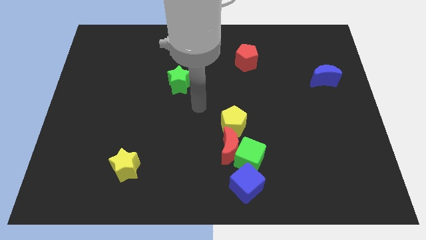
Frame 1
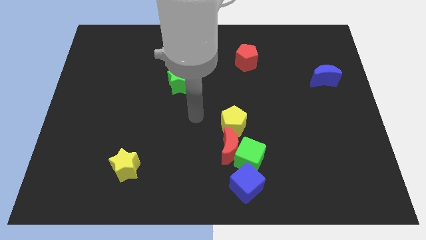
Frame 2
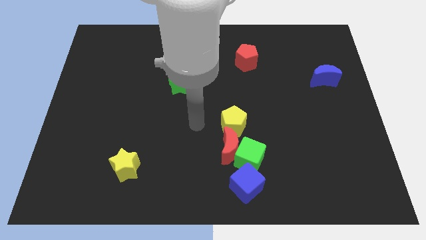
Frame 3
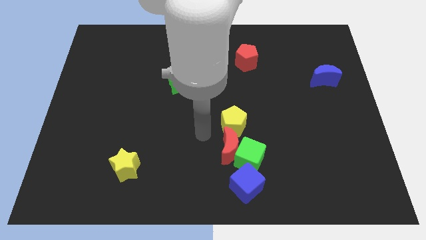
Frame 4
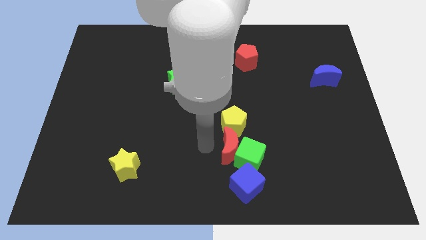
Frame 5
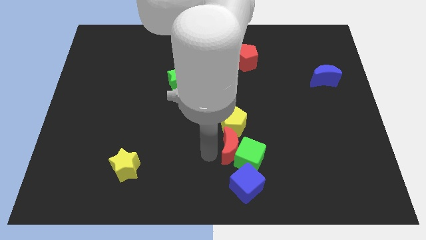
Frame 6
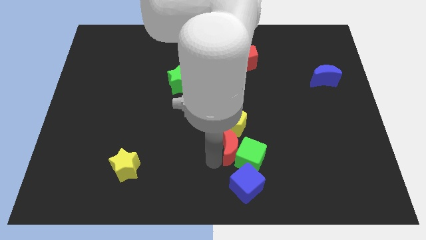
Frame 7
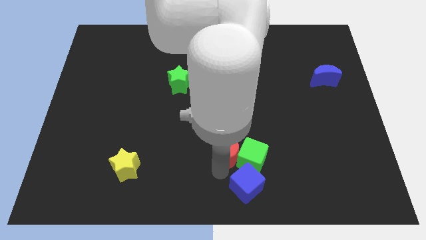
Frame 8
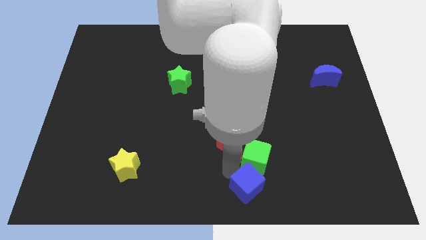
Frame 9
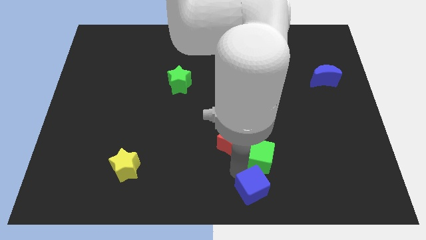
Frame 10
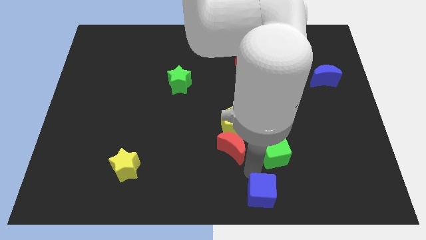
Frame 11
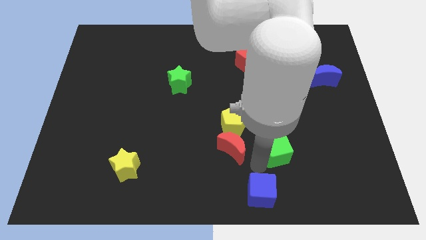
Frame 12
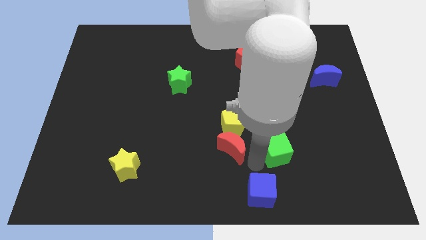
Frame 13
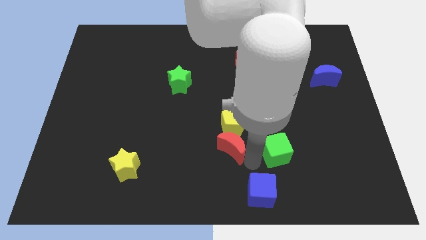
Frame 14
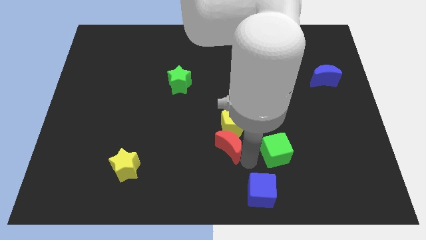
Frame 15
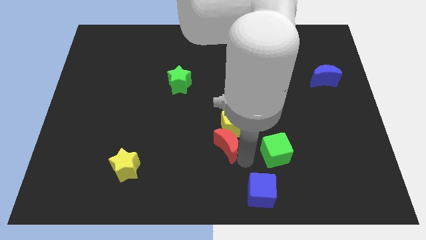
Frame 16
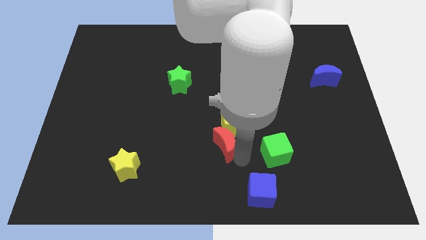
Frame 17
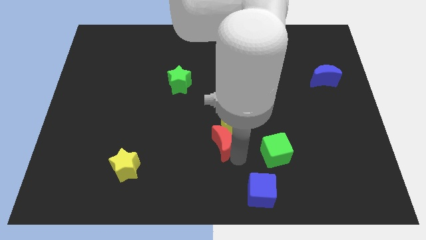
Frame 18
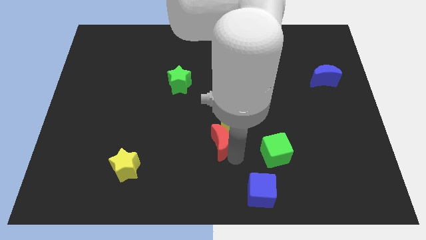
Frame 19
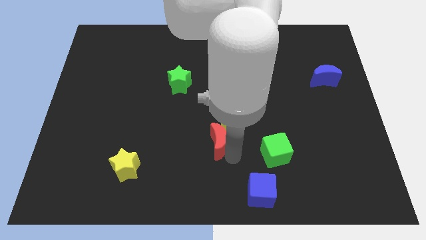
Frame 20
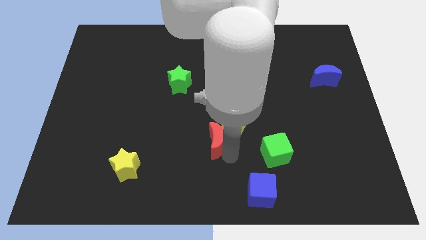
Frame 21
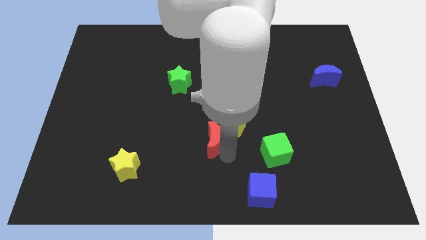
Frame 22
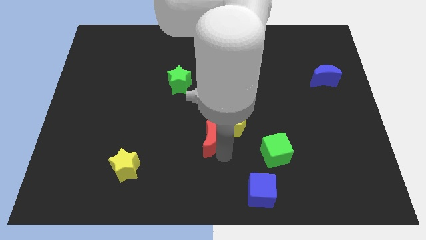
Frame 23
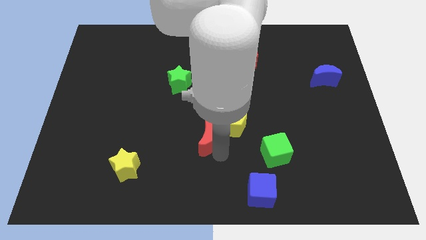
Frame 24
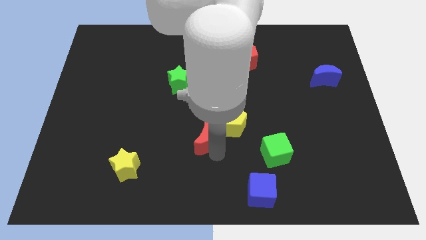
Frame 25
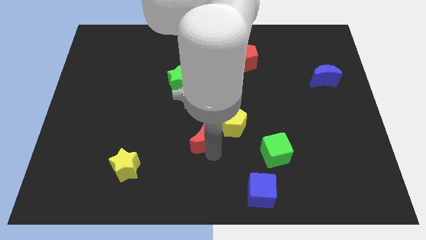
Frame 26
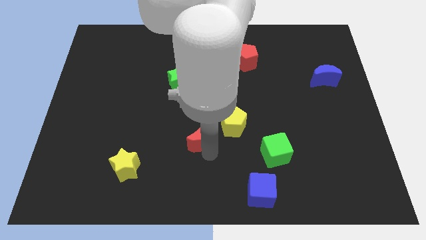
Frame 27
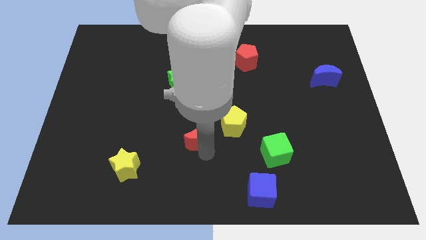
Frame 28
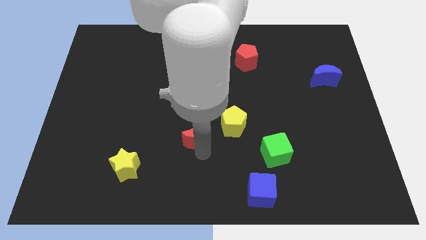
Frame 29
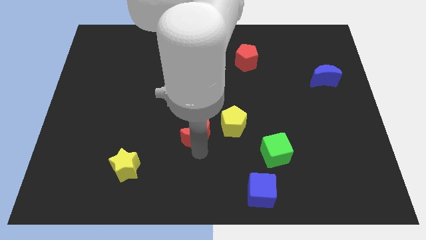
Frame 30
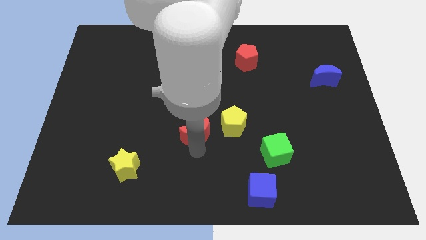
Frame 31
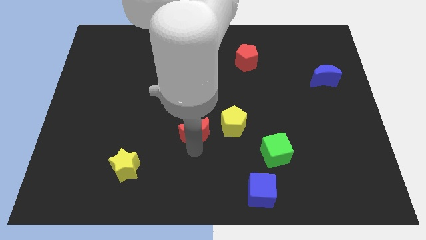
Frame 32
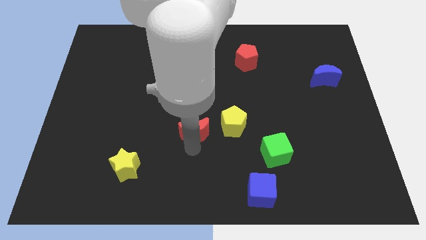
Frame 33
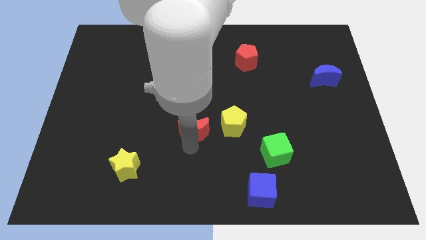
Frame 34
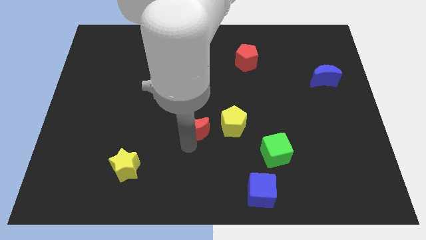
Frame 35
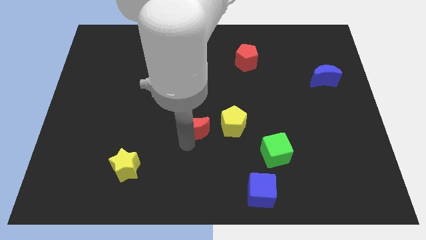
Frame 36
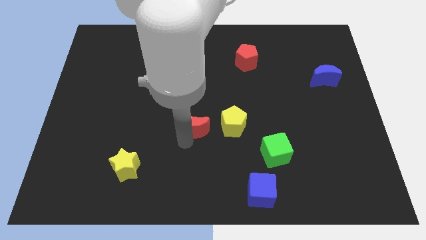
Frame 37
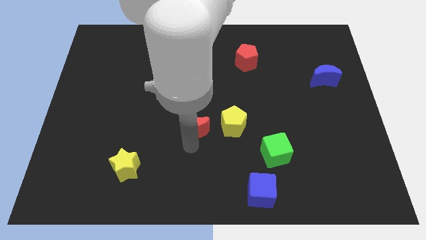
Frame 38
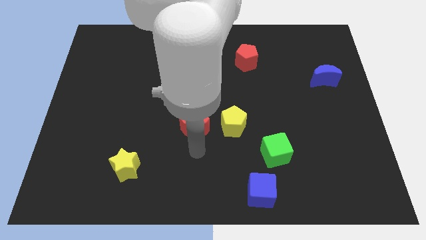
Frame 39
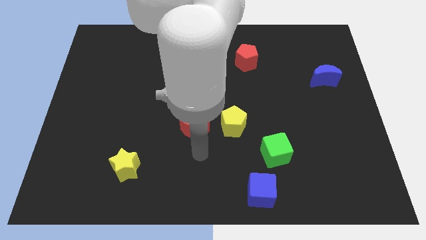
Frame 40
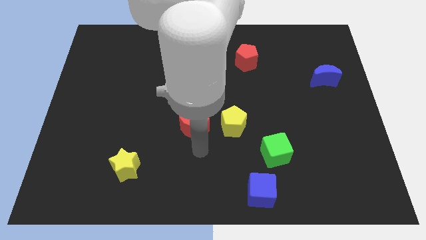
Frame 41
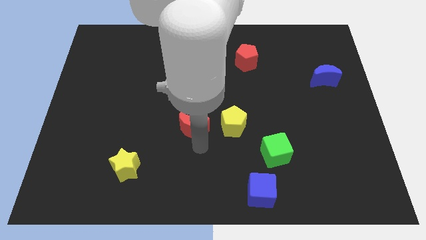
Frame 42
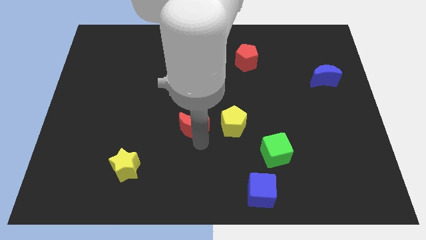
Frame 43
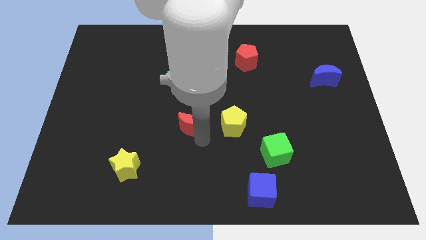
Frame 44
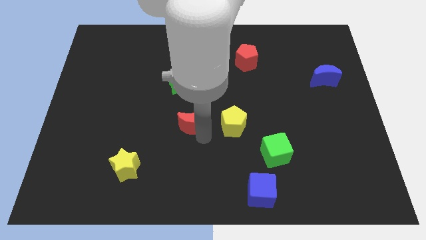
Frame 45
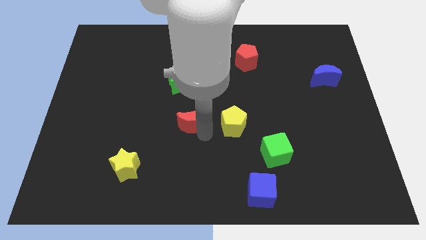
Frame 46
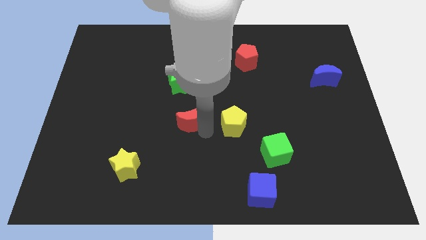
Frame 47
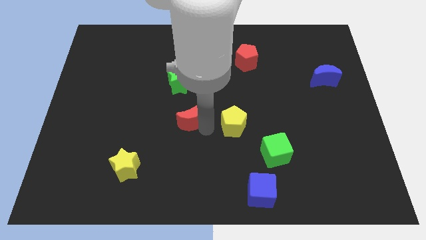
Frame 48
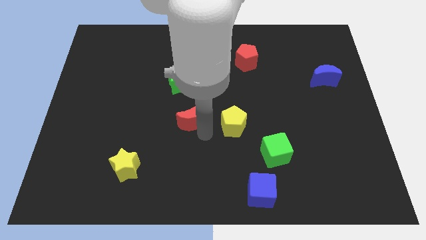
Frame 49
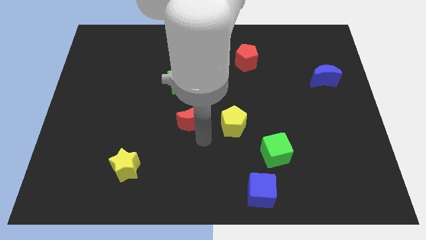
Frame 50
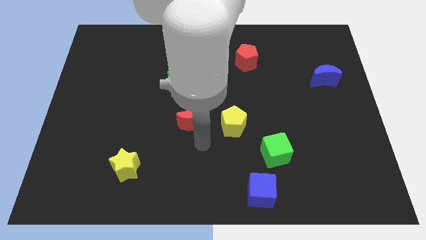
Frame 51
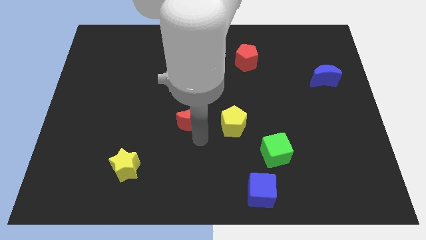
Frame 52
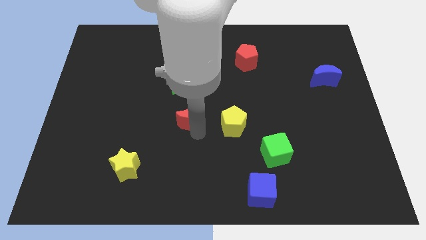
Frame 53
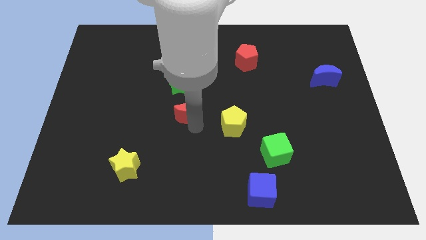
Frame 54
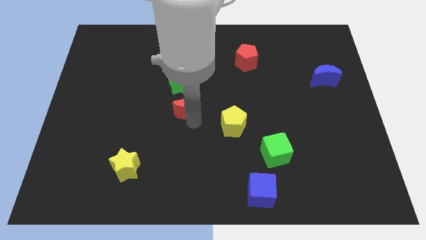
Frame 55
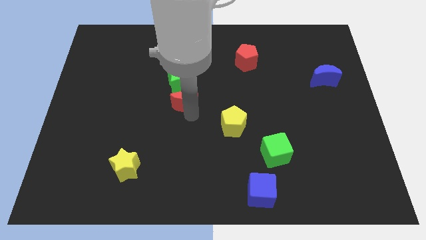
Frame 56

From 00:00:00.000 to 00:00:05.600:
slide the red moon next to the green star

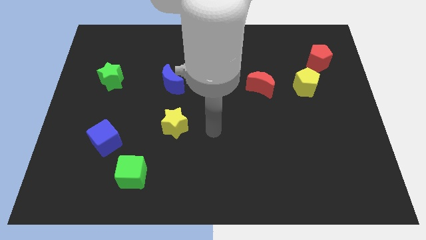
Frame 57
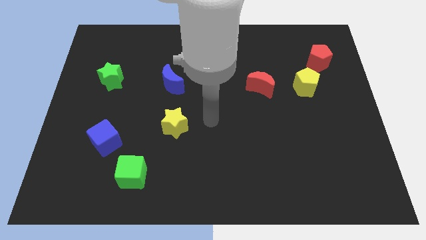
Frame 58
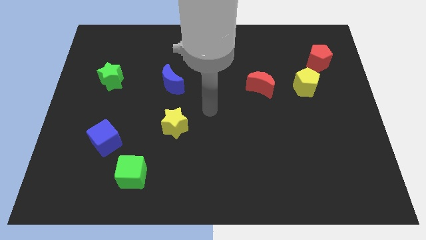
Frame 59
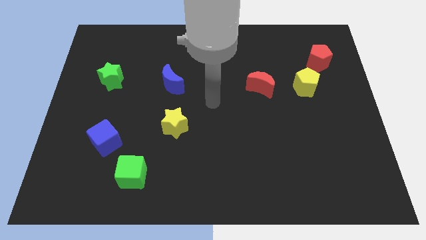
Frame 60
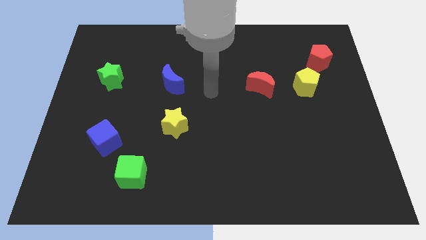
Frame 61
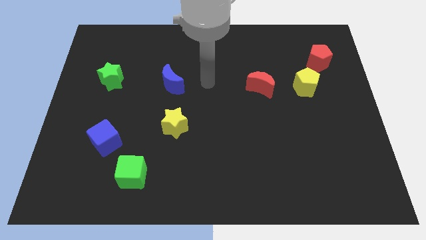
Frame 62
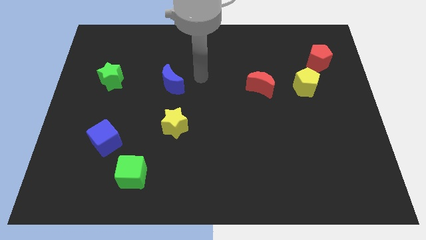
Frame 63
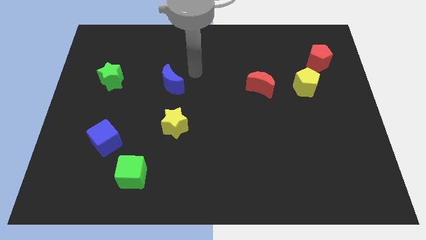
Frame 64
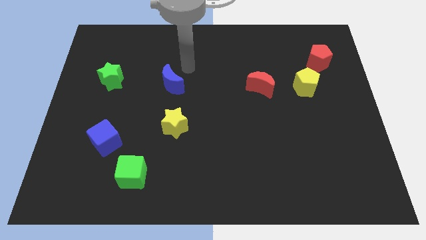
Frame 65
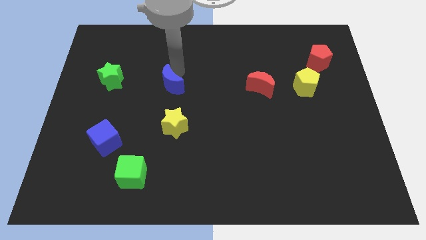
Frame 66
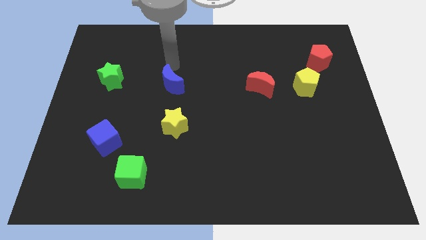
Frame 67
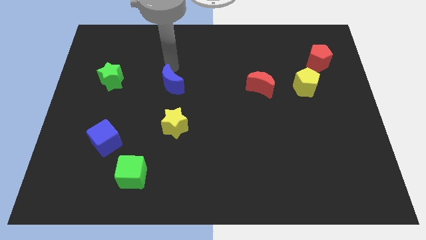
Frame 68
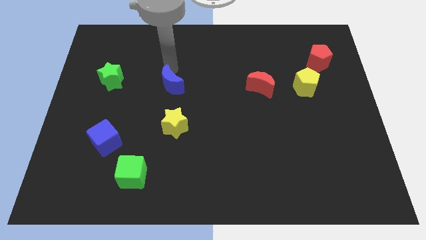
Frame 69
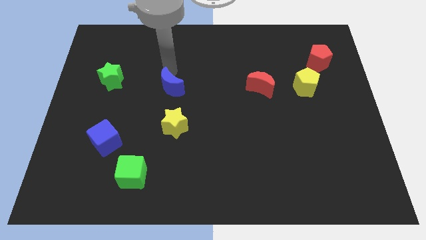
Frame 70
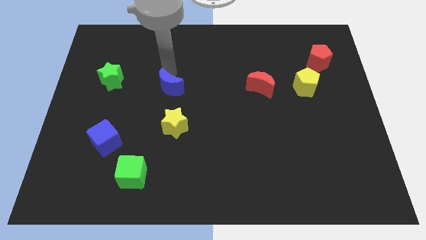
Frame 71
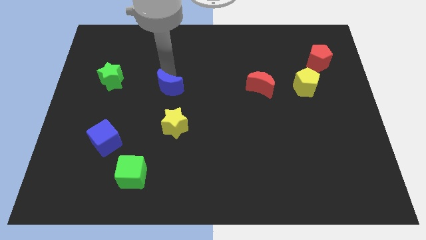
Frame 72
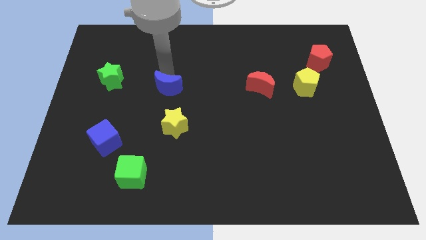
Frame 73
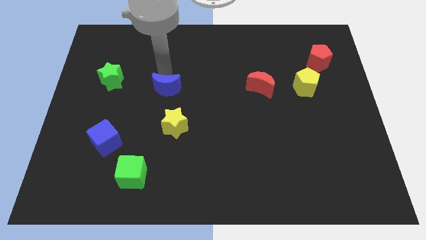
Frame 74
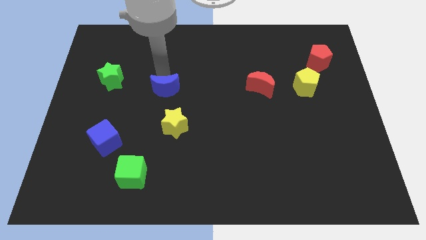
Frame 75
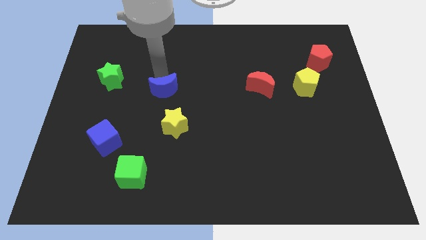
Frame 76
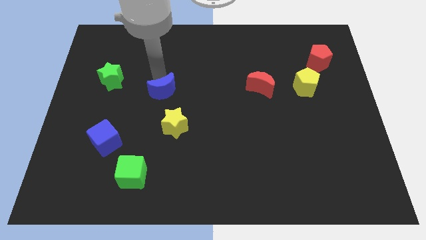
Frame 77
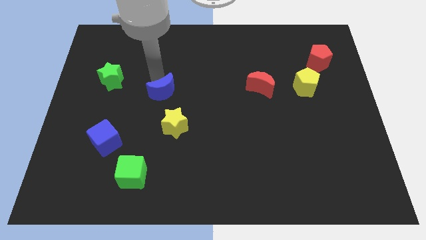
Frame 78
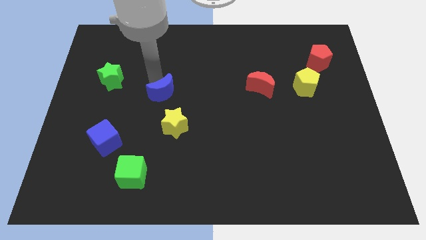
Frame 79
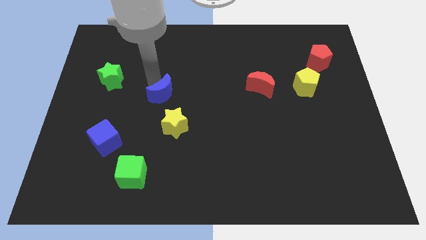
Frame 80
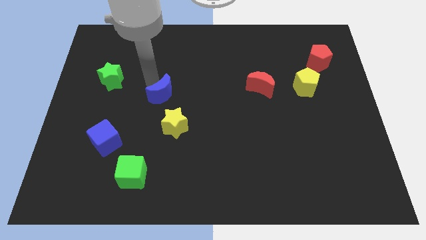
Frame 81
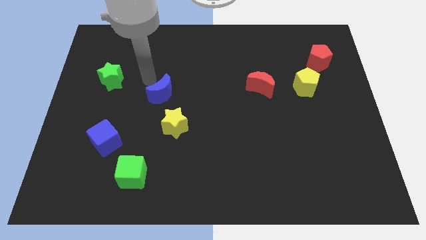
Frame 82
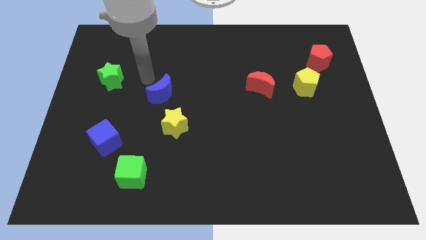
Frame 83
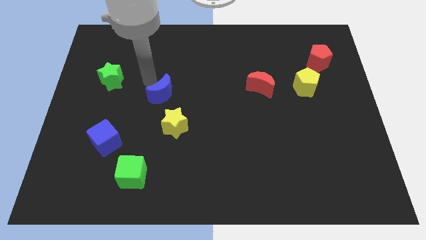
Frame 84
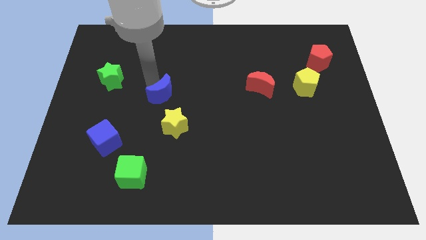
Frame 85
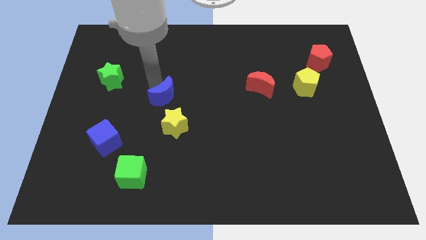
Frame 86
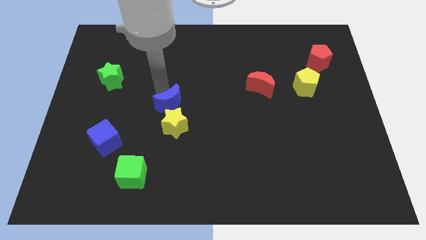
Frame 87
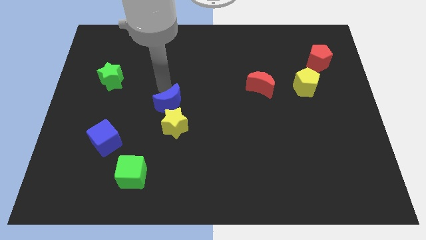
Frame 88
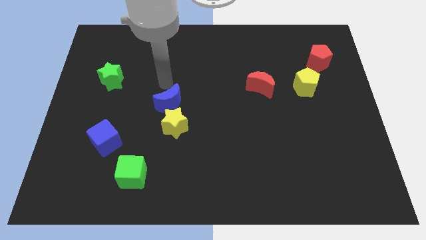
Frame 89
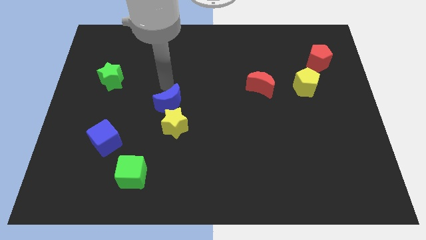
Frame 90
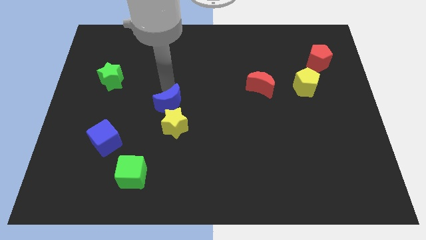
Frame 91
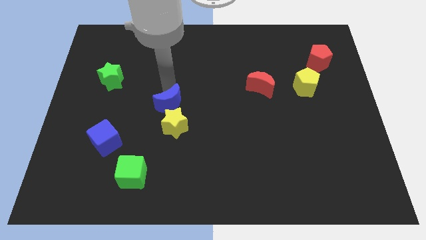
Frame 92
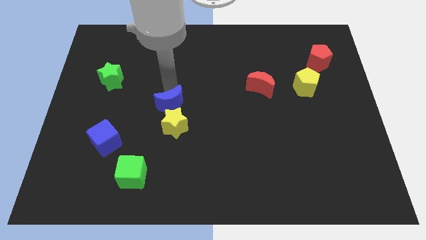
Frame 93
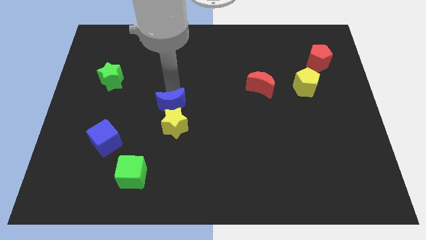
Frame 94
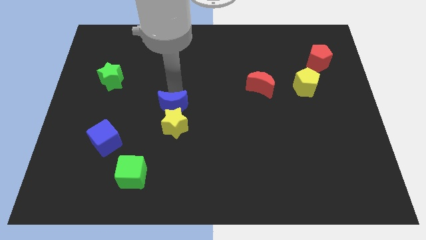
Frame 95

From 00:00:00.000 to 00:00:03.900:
move the blue moon close to the yellow star
